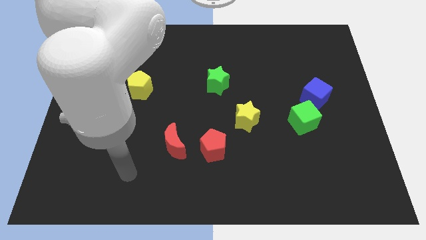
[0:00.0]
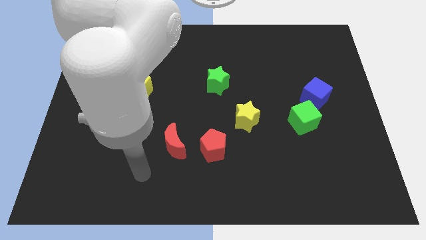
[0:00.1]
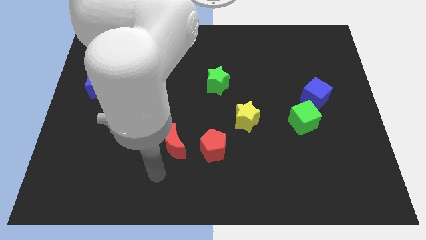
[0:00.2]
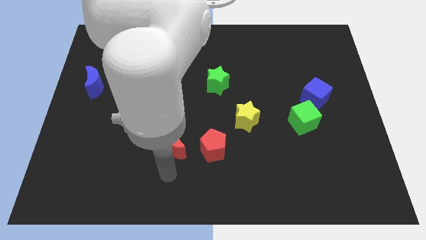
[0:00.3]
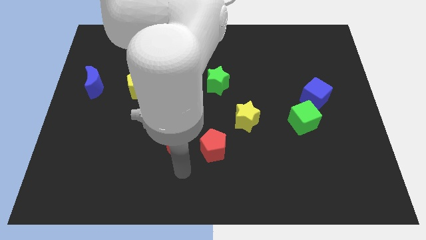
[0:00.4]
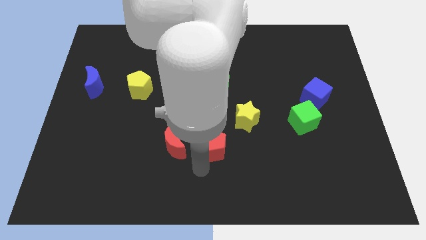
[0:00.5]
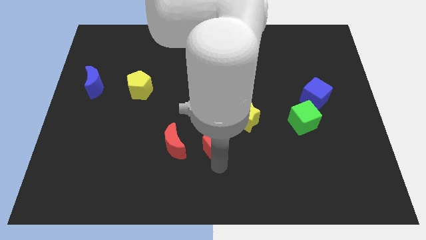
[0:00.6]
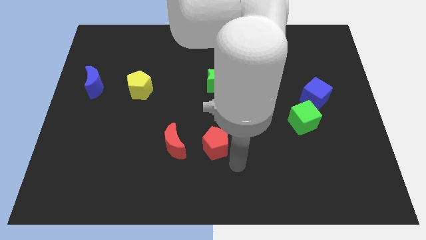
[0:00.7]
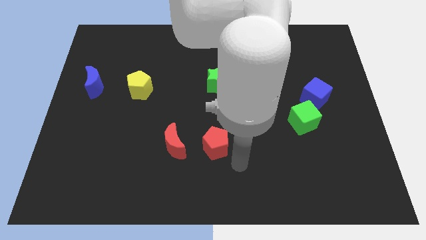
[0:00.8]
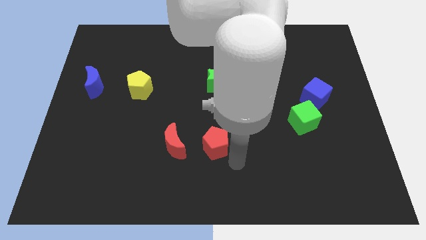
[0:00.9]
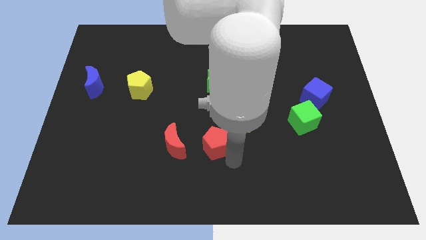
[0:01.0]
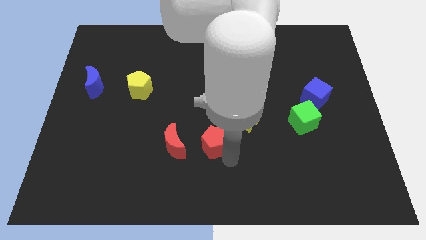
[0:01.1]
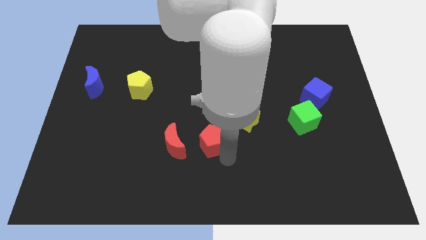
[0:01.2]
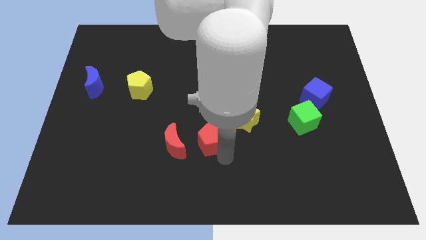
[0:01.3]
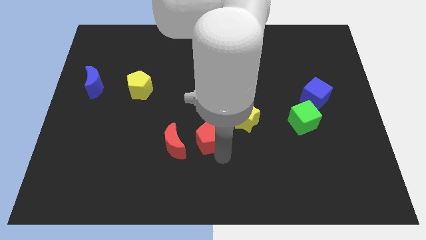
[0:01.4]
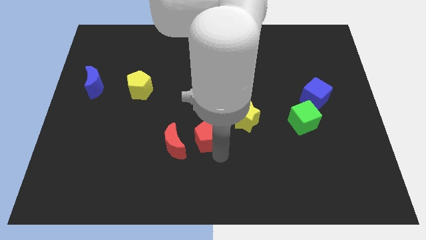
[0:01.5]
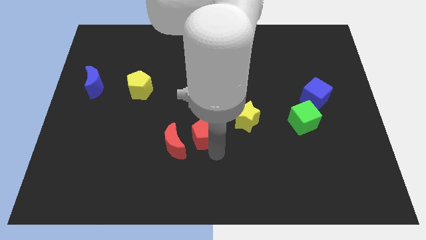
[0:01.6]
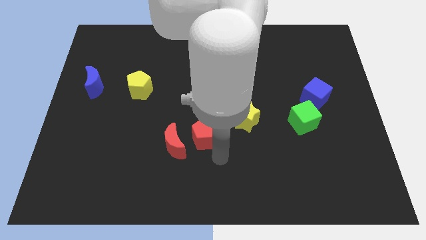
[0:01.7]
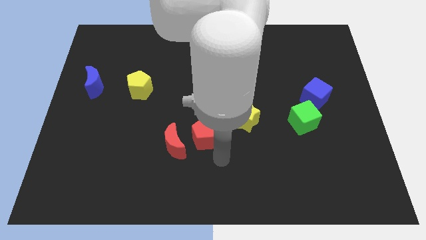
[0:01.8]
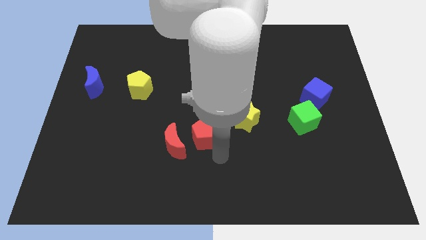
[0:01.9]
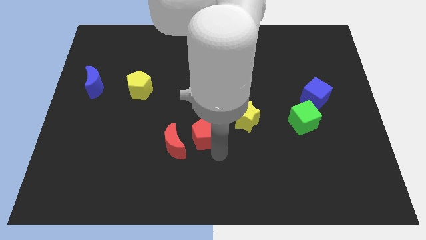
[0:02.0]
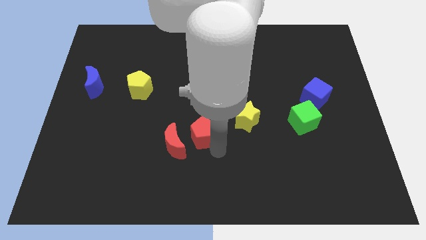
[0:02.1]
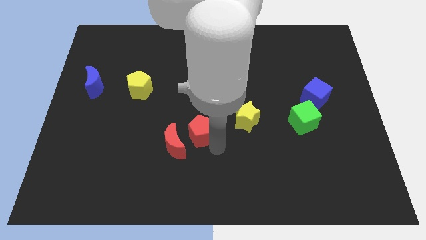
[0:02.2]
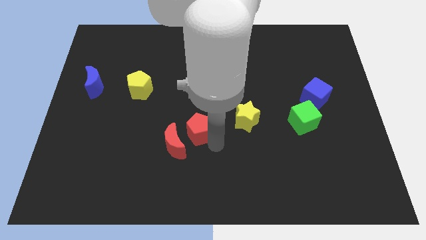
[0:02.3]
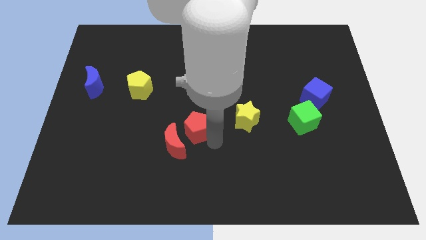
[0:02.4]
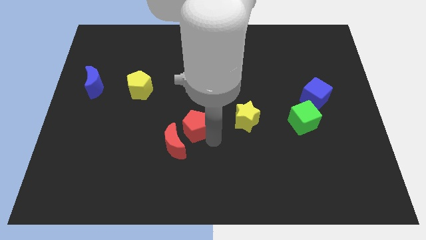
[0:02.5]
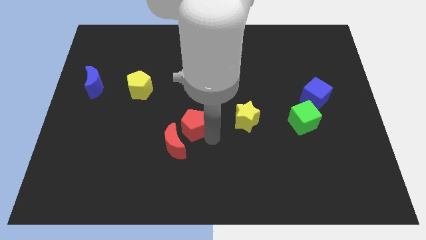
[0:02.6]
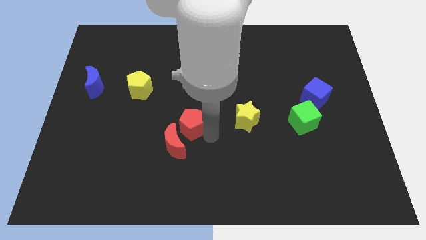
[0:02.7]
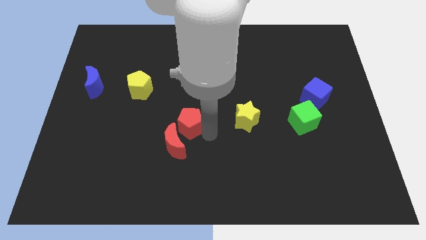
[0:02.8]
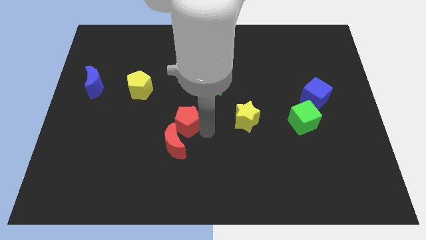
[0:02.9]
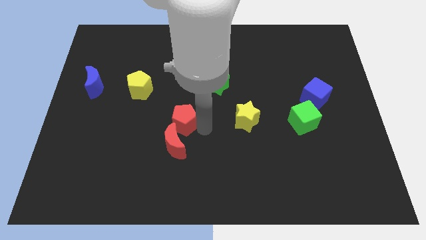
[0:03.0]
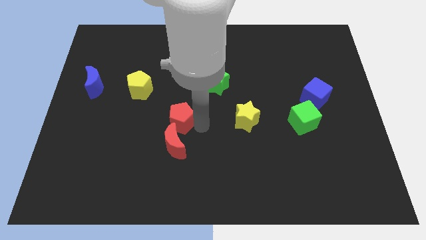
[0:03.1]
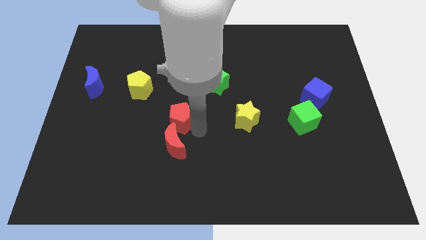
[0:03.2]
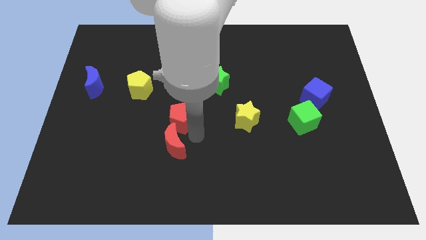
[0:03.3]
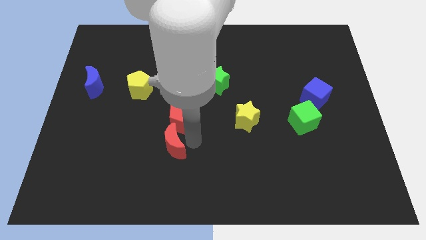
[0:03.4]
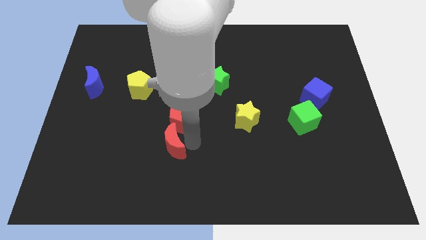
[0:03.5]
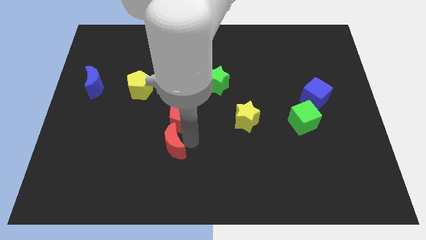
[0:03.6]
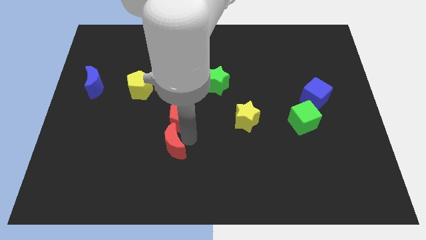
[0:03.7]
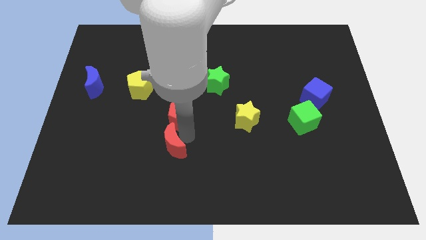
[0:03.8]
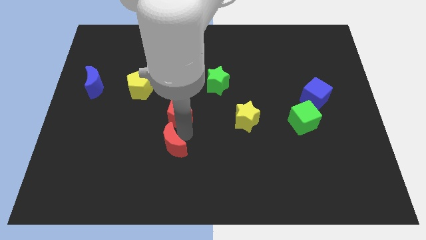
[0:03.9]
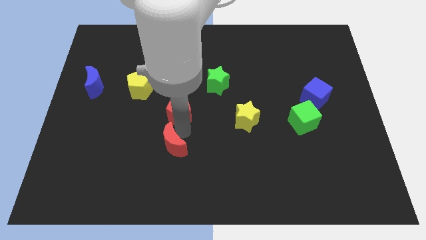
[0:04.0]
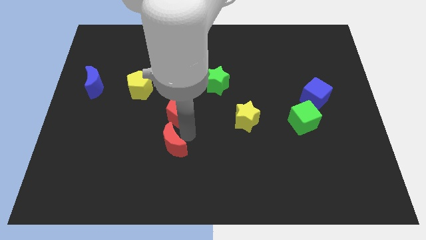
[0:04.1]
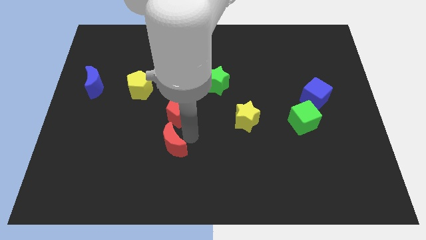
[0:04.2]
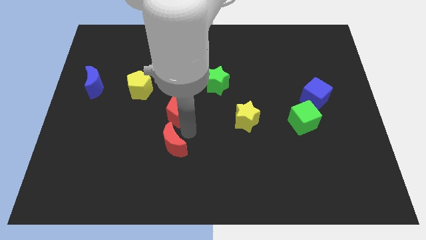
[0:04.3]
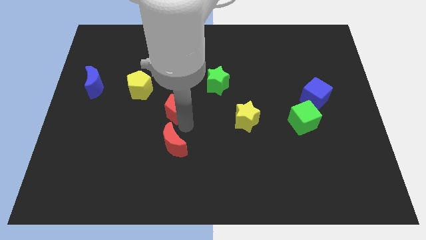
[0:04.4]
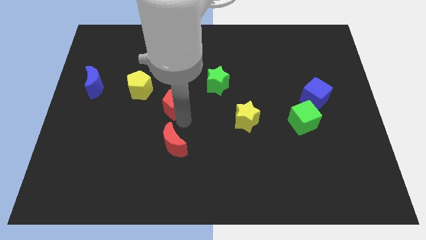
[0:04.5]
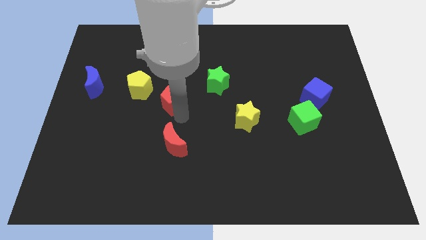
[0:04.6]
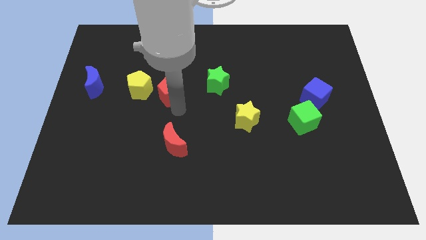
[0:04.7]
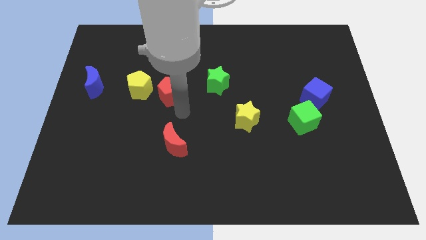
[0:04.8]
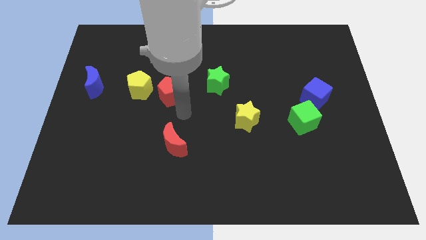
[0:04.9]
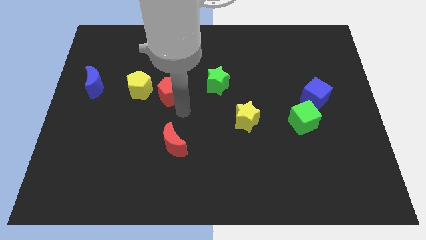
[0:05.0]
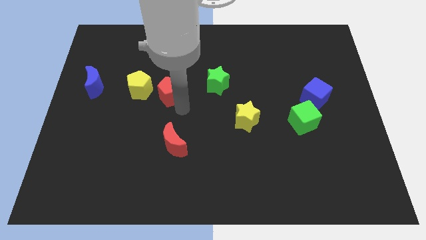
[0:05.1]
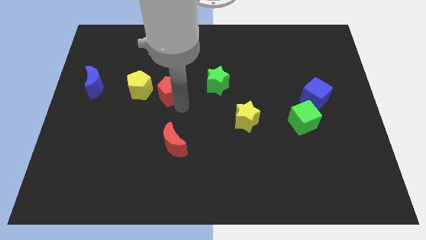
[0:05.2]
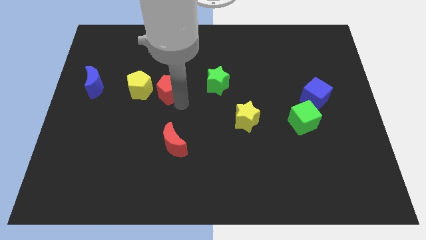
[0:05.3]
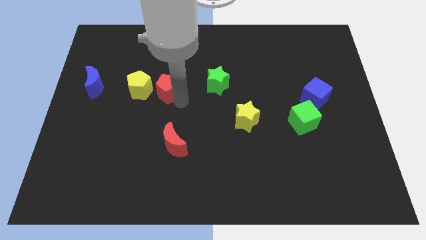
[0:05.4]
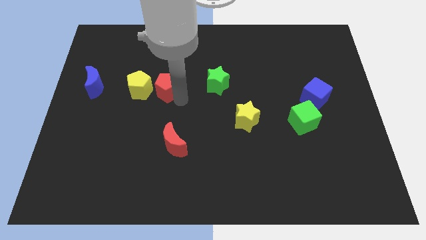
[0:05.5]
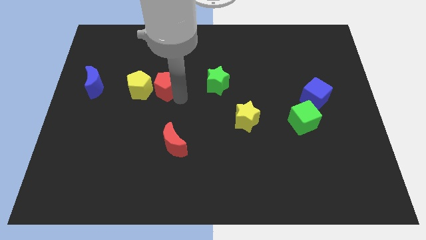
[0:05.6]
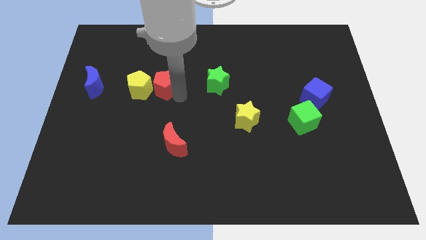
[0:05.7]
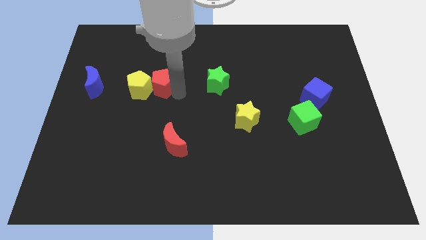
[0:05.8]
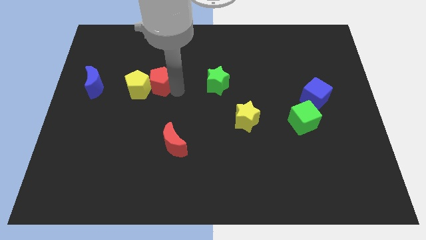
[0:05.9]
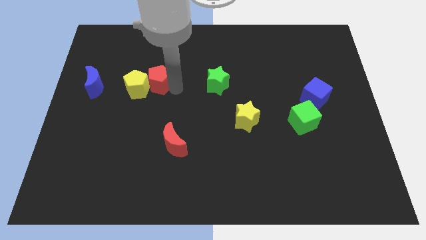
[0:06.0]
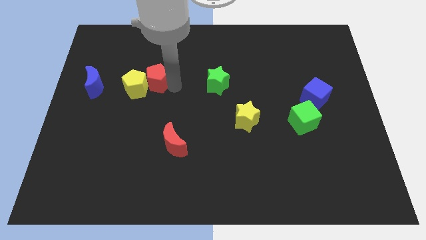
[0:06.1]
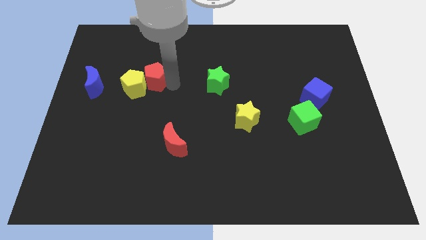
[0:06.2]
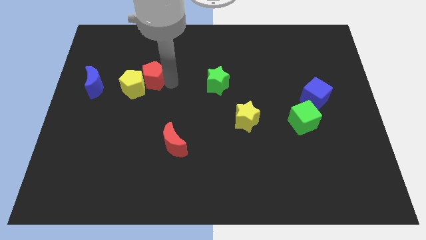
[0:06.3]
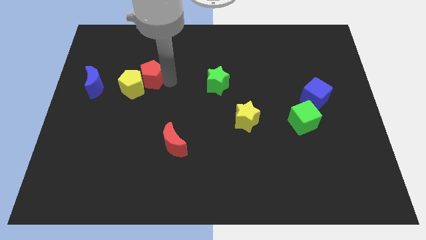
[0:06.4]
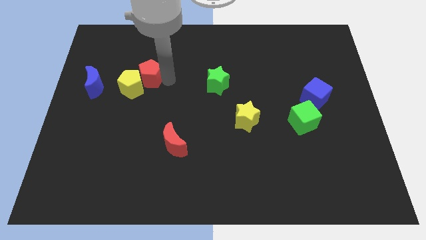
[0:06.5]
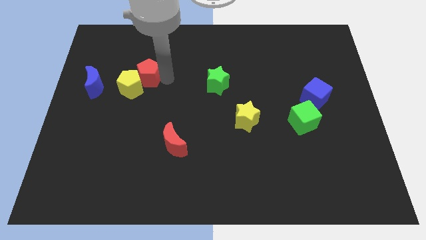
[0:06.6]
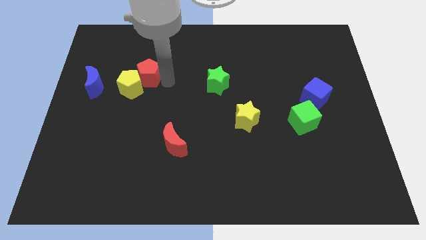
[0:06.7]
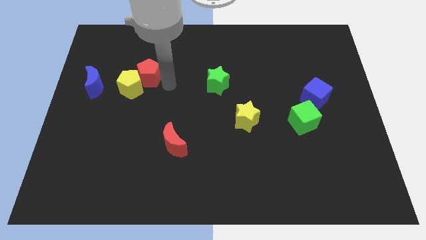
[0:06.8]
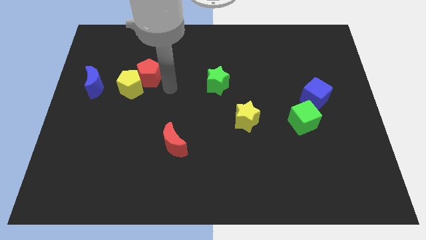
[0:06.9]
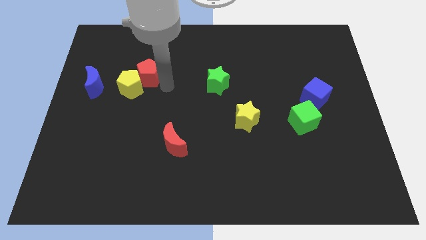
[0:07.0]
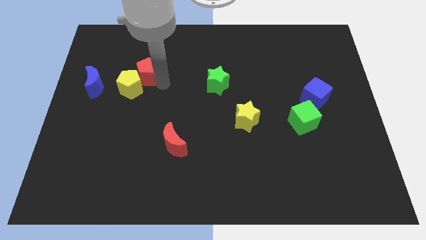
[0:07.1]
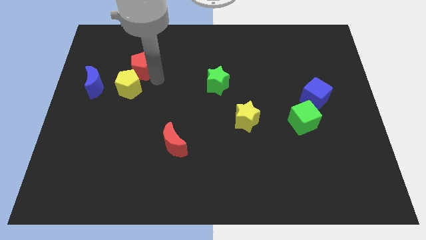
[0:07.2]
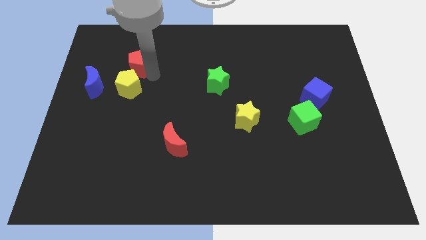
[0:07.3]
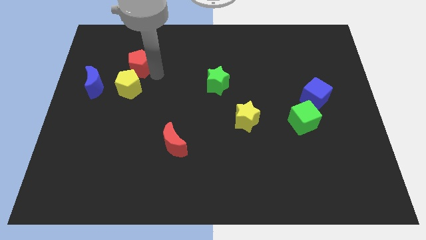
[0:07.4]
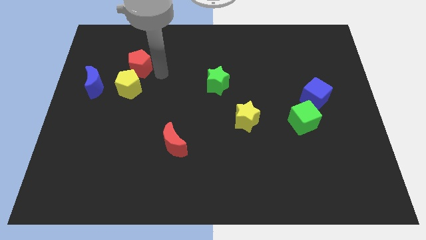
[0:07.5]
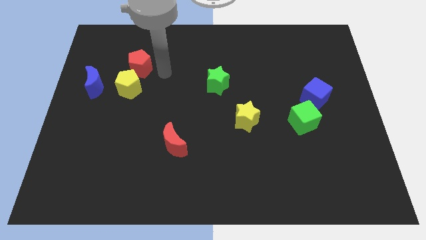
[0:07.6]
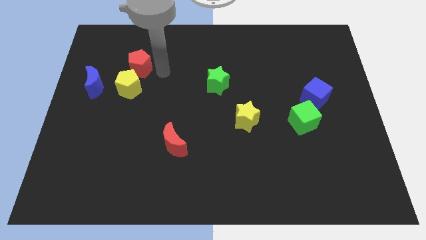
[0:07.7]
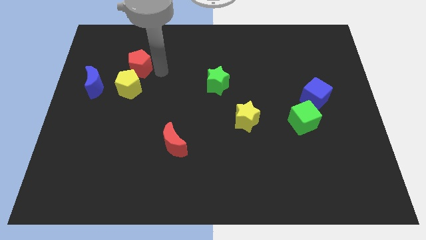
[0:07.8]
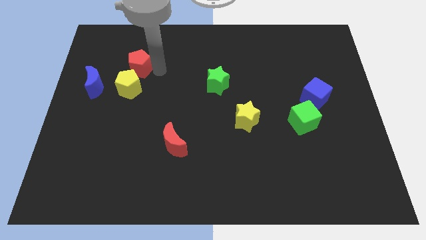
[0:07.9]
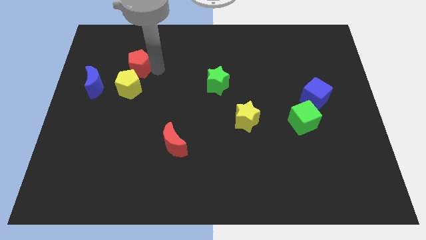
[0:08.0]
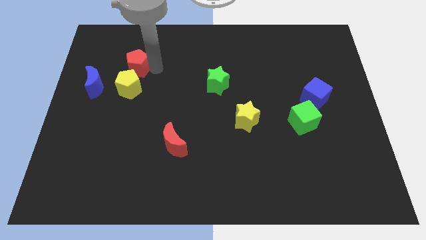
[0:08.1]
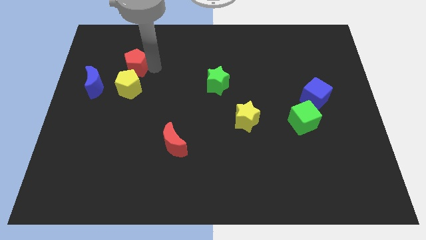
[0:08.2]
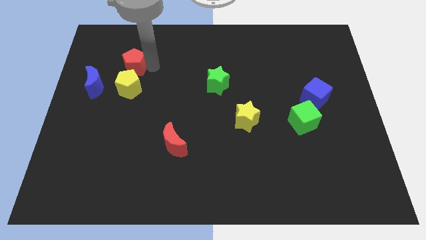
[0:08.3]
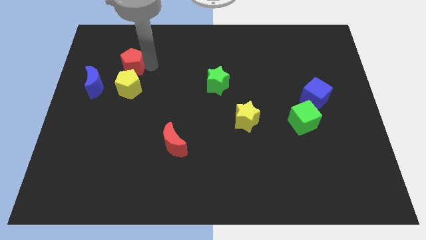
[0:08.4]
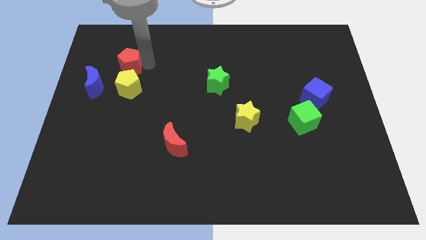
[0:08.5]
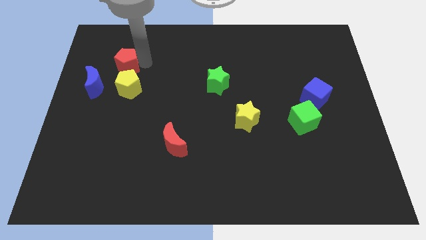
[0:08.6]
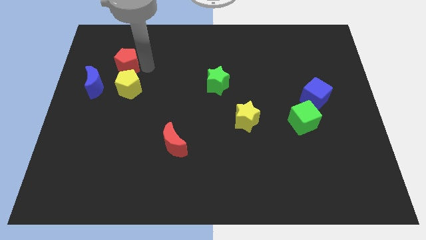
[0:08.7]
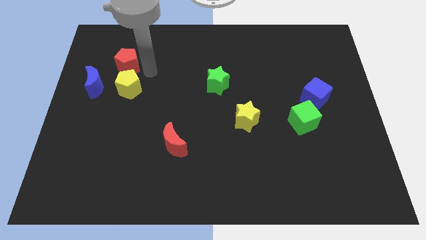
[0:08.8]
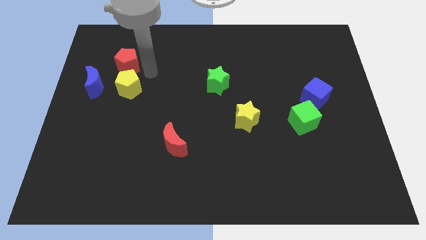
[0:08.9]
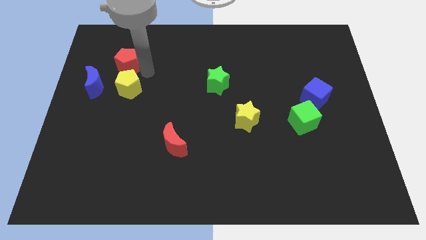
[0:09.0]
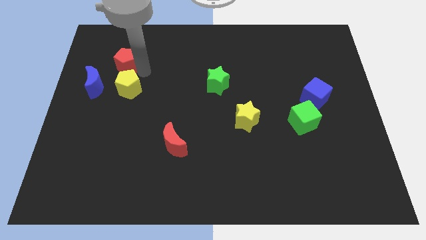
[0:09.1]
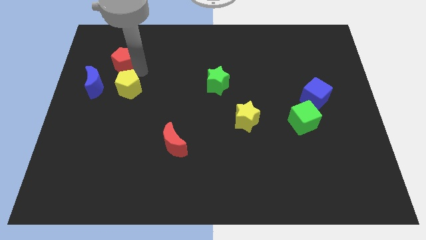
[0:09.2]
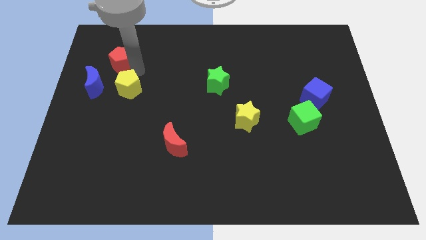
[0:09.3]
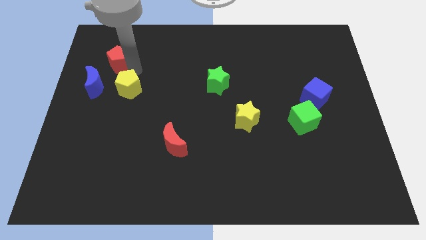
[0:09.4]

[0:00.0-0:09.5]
put the red pentagon above the blue moon
